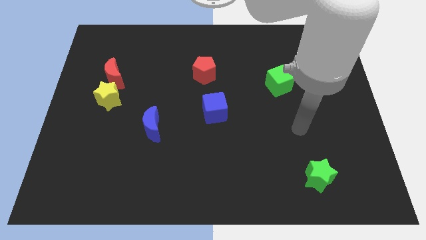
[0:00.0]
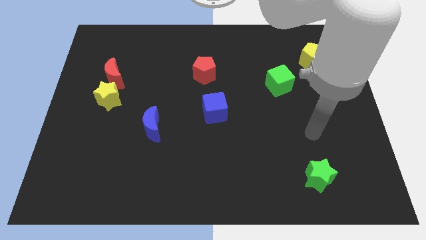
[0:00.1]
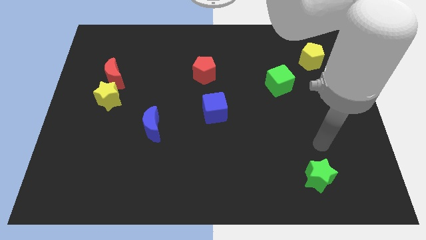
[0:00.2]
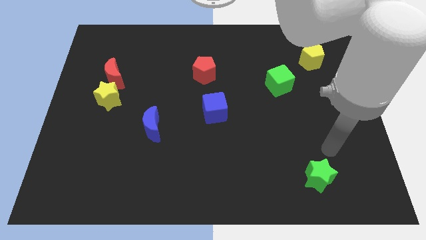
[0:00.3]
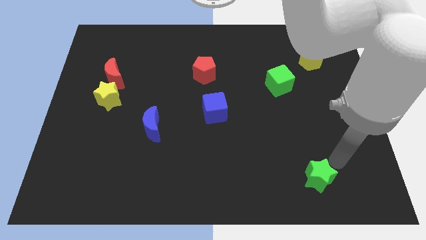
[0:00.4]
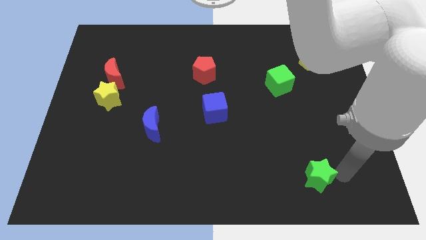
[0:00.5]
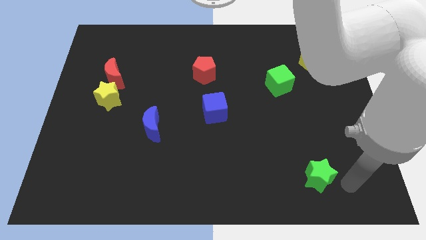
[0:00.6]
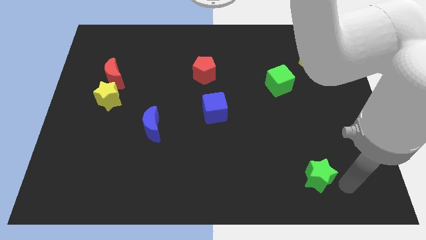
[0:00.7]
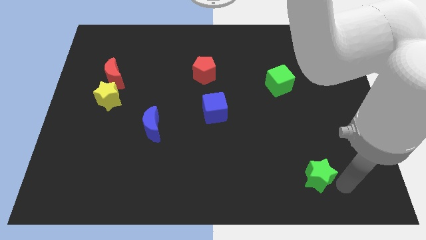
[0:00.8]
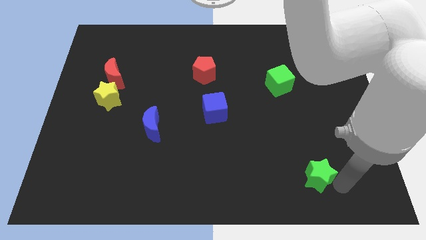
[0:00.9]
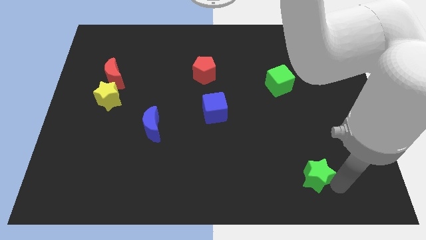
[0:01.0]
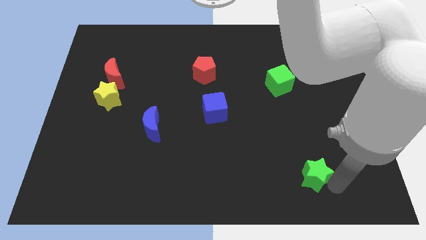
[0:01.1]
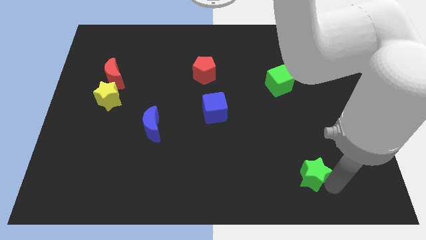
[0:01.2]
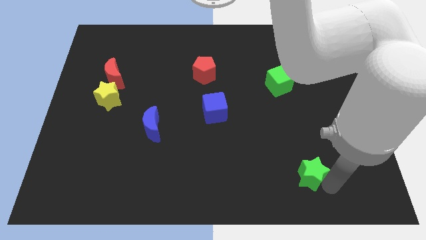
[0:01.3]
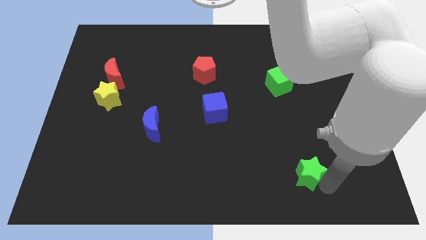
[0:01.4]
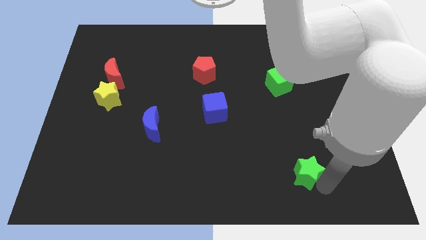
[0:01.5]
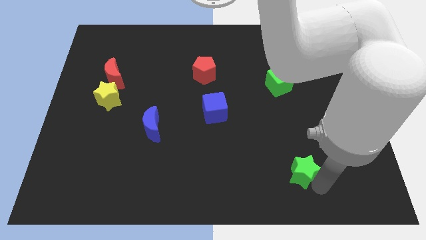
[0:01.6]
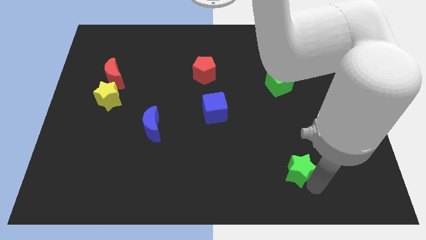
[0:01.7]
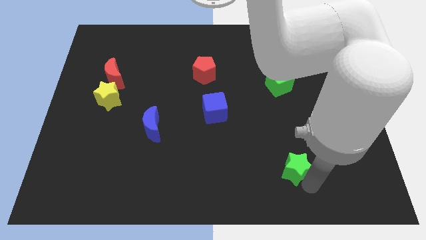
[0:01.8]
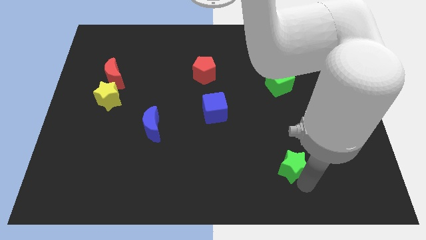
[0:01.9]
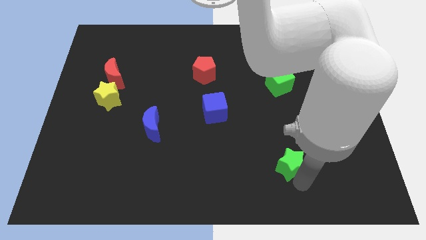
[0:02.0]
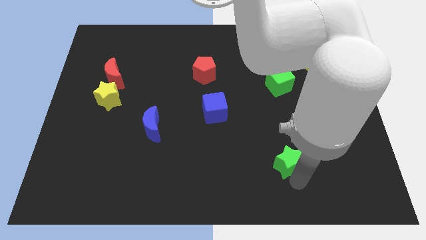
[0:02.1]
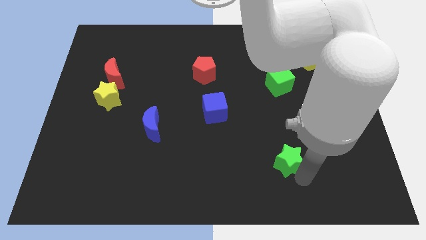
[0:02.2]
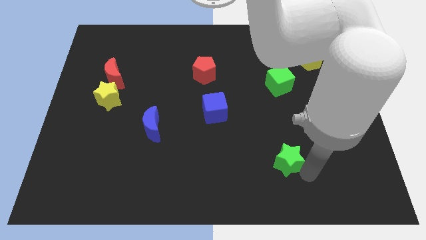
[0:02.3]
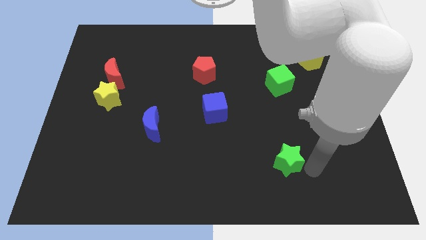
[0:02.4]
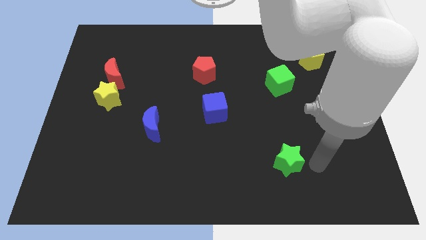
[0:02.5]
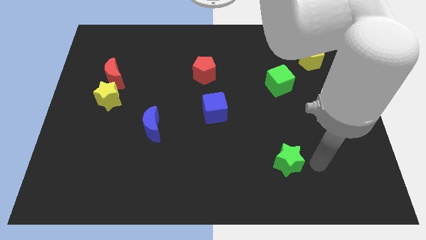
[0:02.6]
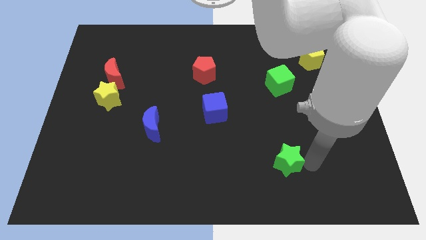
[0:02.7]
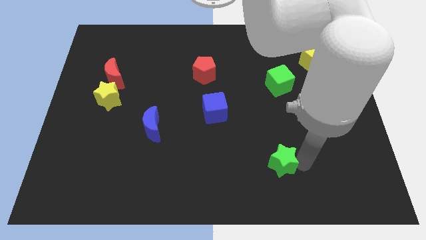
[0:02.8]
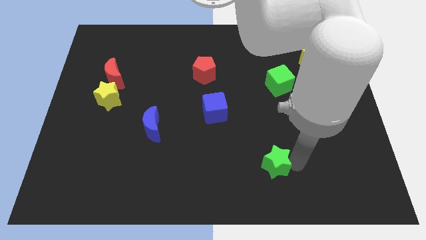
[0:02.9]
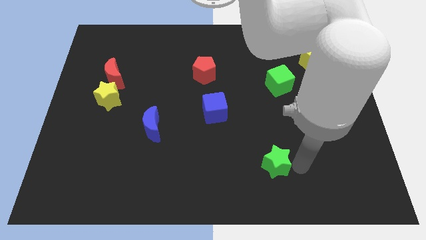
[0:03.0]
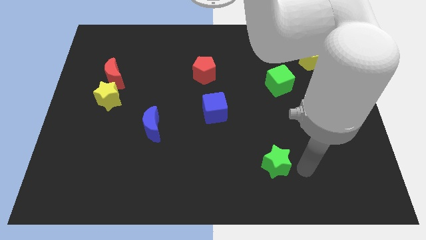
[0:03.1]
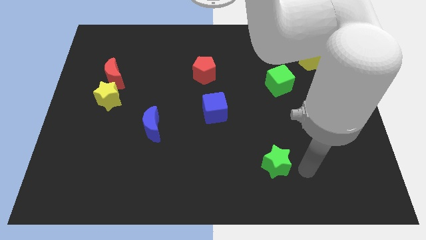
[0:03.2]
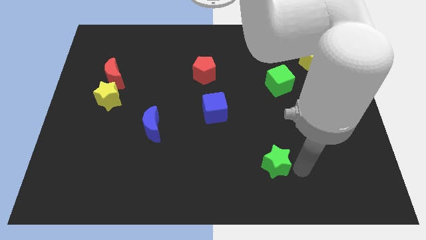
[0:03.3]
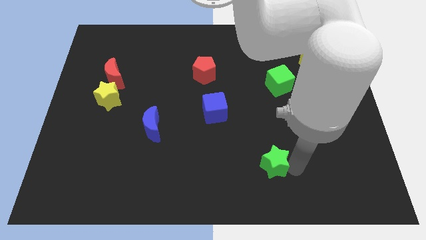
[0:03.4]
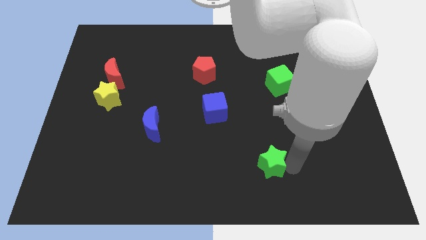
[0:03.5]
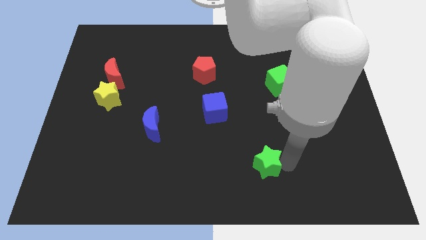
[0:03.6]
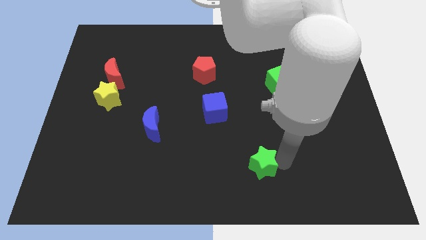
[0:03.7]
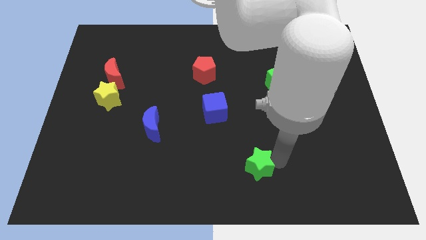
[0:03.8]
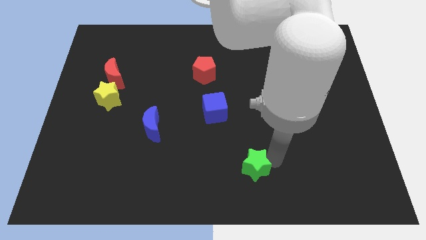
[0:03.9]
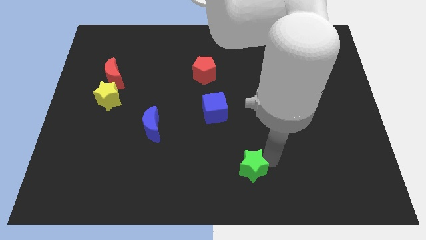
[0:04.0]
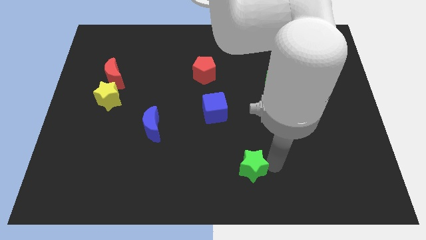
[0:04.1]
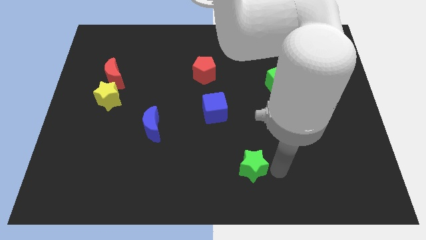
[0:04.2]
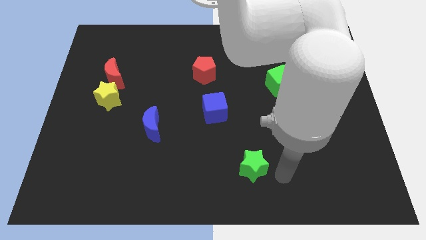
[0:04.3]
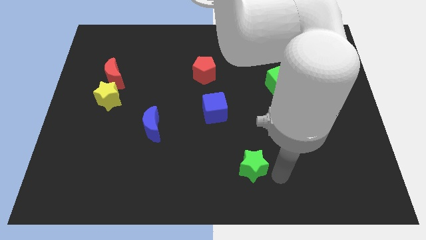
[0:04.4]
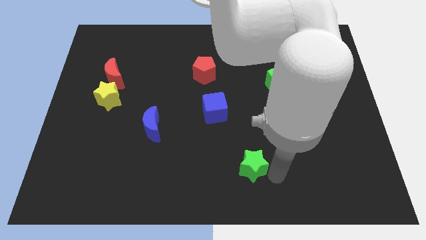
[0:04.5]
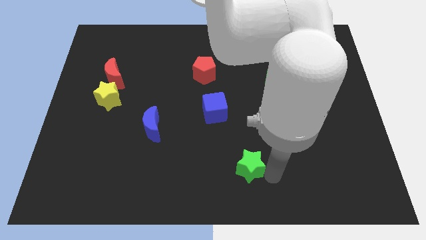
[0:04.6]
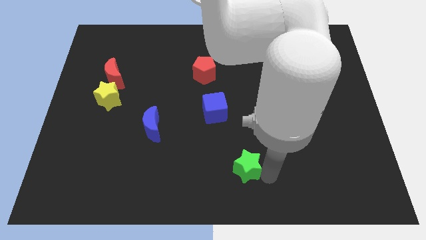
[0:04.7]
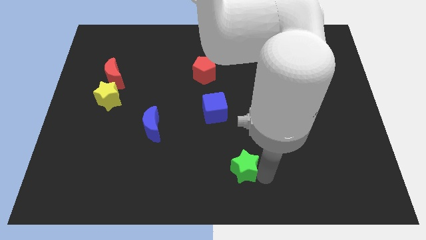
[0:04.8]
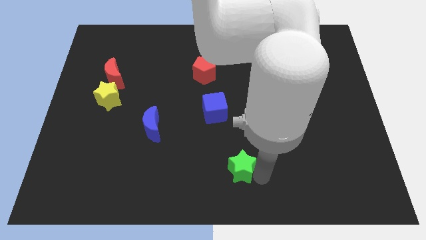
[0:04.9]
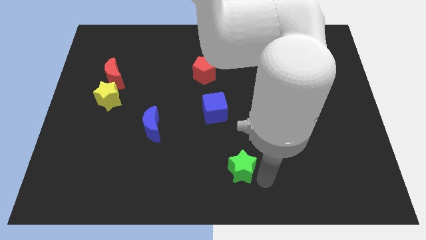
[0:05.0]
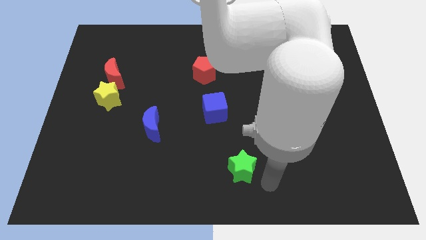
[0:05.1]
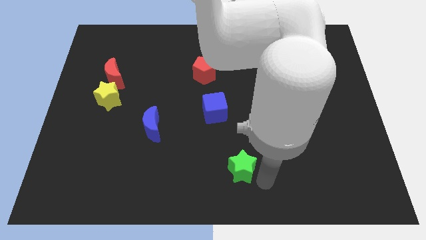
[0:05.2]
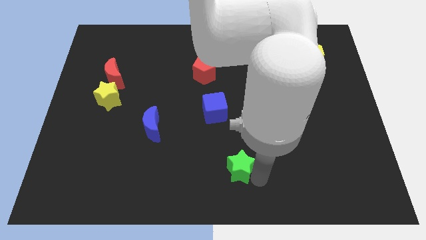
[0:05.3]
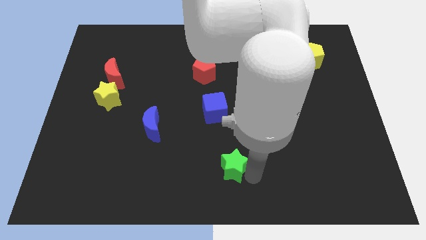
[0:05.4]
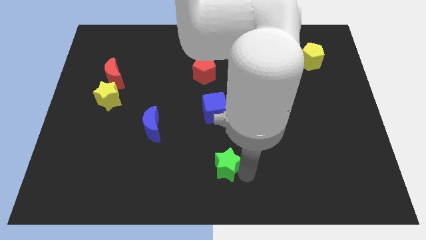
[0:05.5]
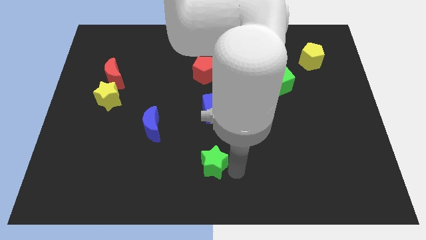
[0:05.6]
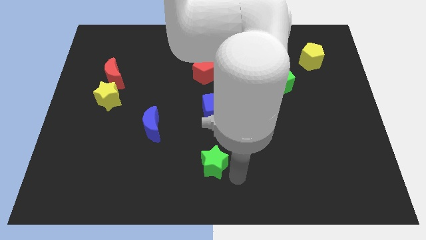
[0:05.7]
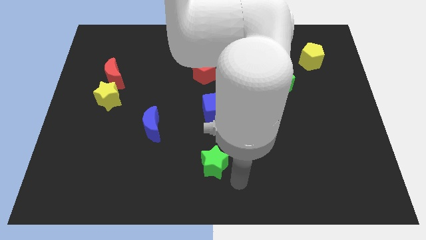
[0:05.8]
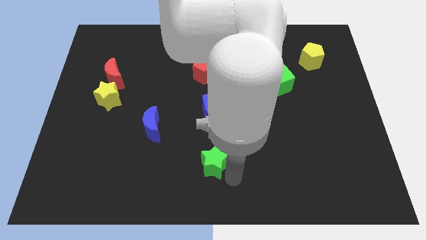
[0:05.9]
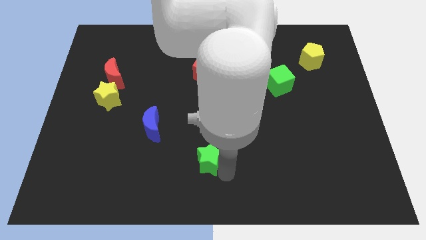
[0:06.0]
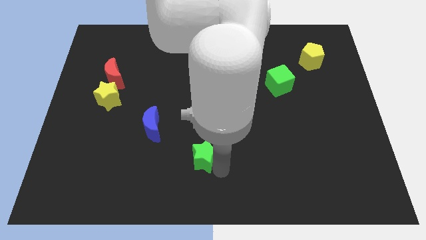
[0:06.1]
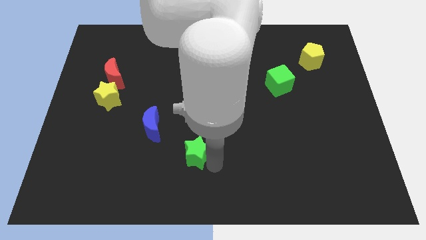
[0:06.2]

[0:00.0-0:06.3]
slide the green star diagonally down and to the right of the blue moon

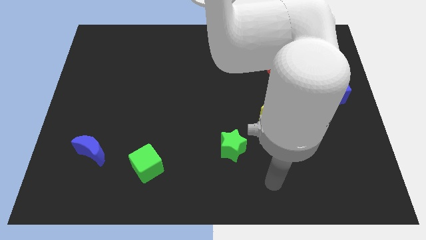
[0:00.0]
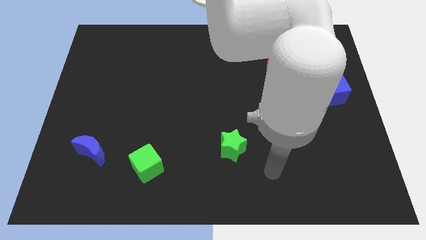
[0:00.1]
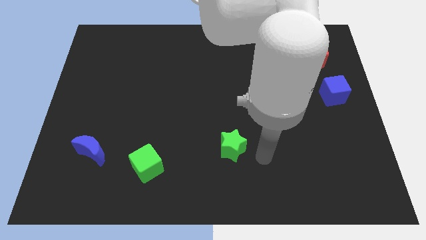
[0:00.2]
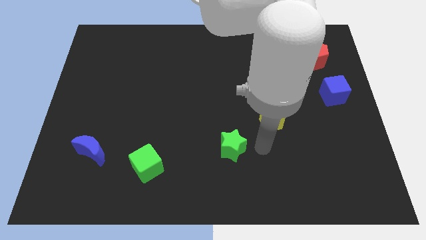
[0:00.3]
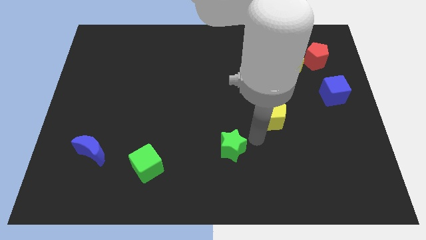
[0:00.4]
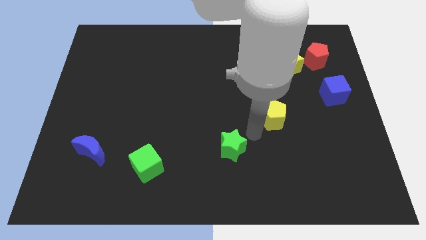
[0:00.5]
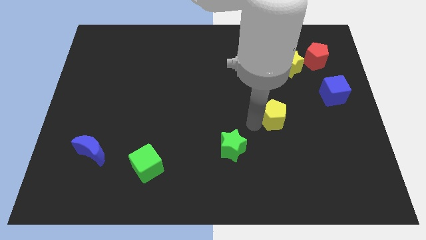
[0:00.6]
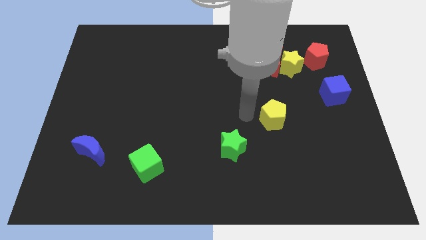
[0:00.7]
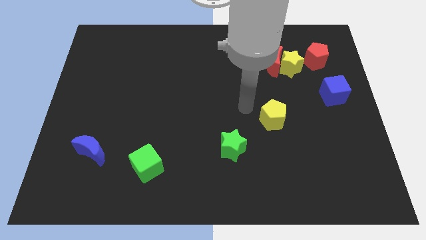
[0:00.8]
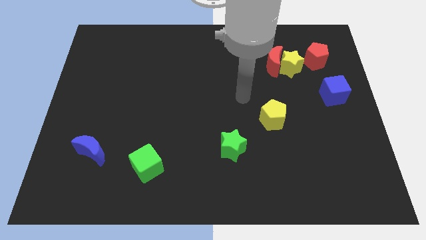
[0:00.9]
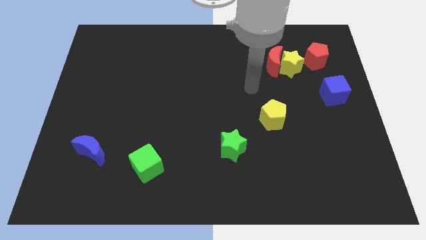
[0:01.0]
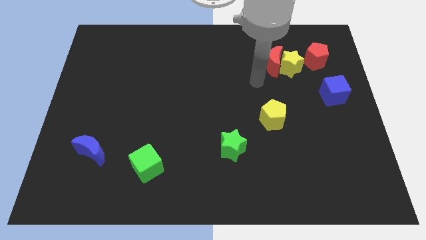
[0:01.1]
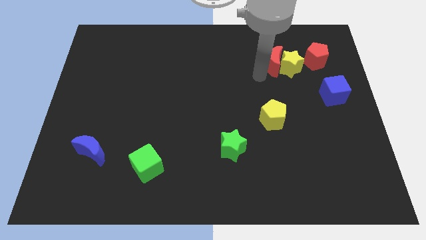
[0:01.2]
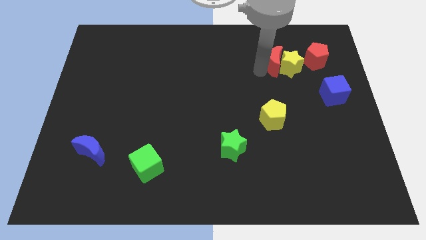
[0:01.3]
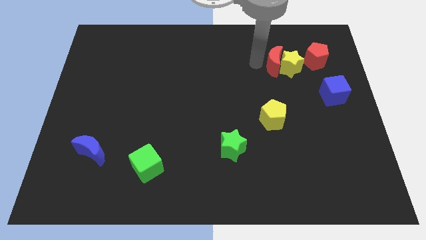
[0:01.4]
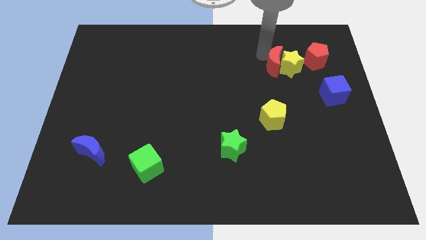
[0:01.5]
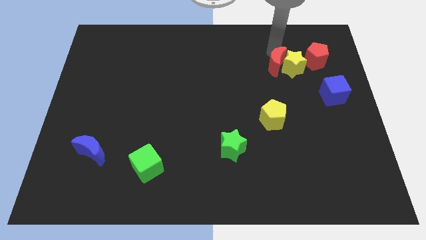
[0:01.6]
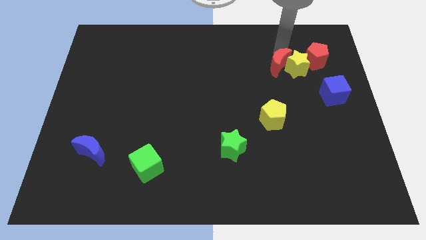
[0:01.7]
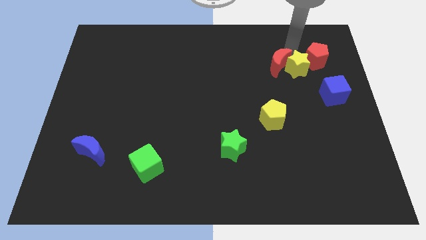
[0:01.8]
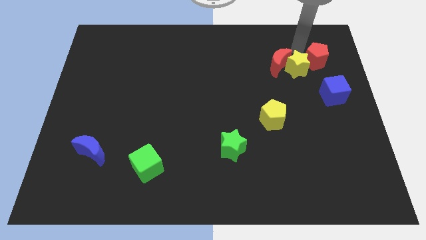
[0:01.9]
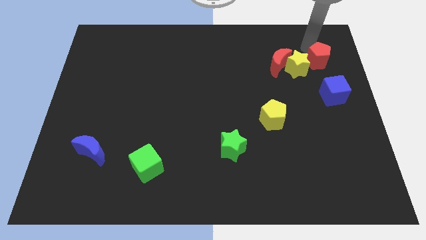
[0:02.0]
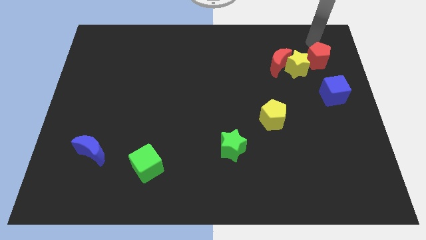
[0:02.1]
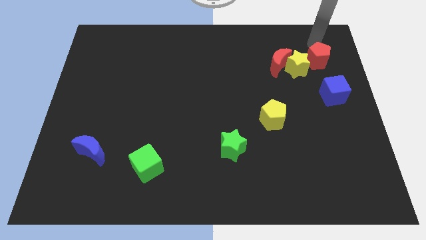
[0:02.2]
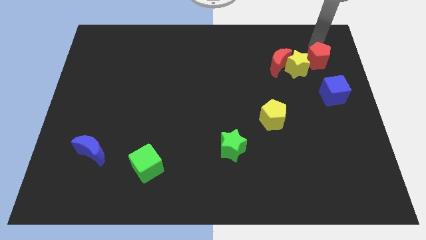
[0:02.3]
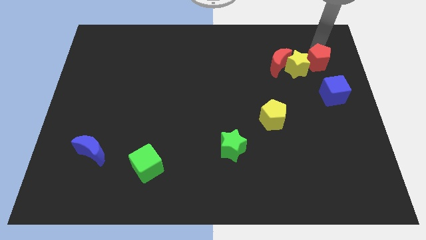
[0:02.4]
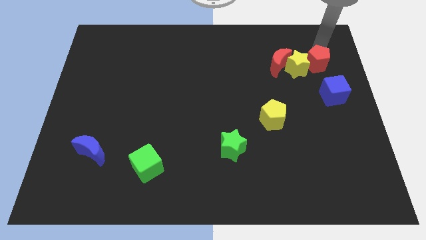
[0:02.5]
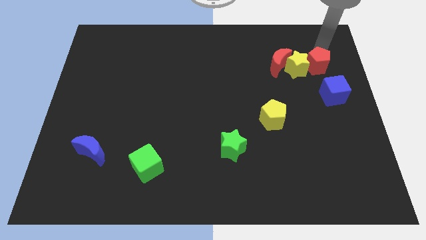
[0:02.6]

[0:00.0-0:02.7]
push the red pentagon diagonally down and to the right of the yellow star
